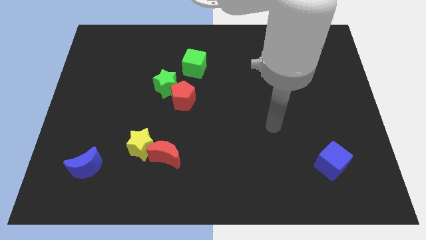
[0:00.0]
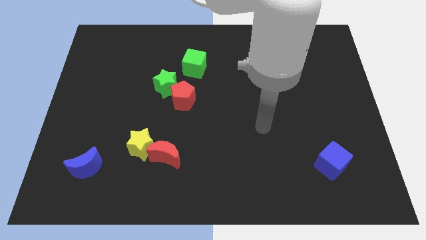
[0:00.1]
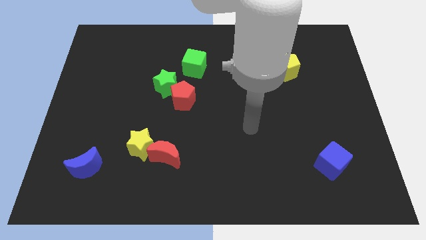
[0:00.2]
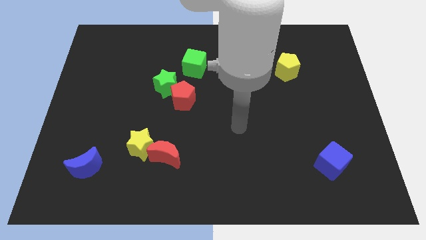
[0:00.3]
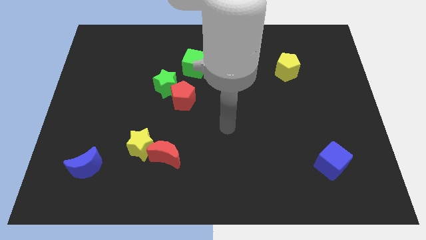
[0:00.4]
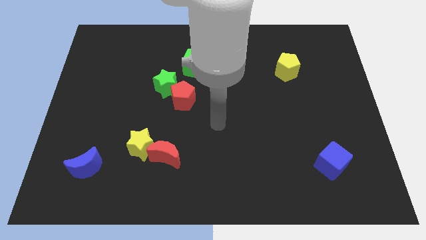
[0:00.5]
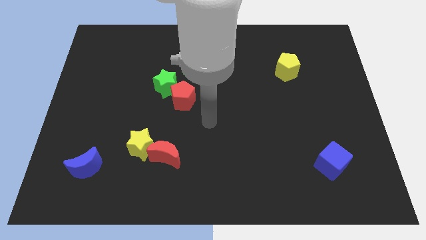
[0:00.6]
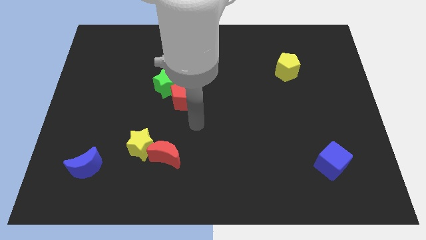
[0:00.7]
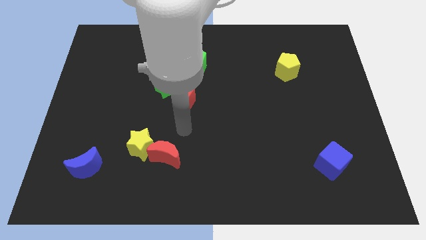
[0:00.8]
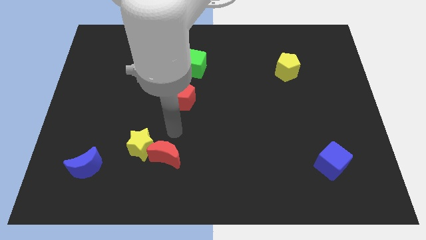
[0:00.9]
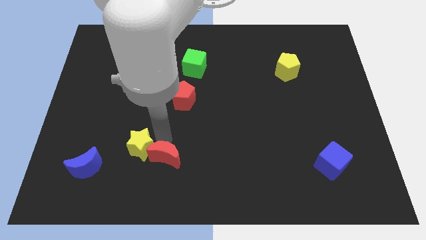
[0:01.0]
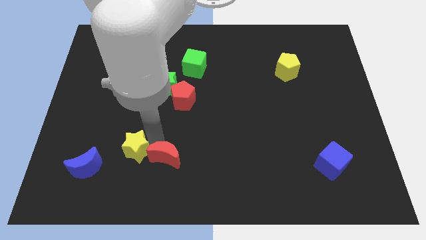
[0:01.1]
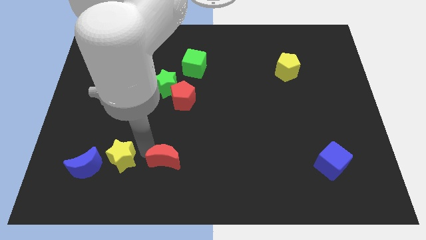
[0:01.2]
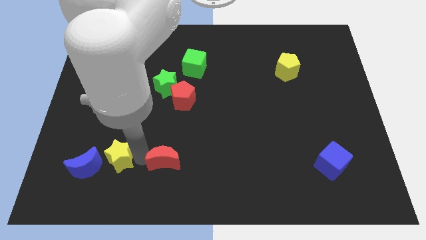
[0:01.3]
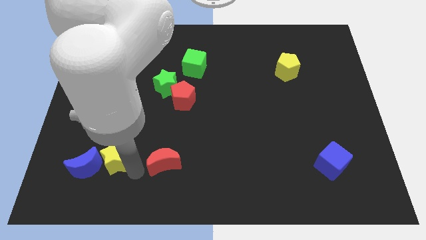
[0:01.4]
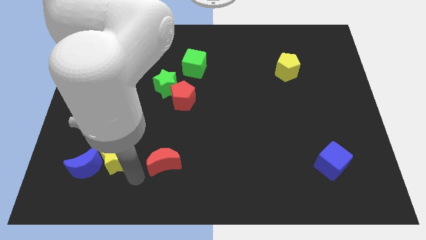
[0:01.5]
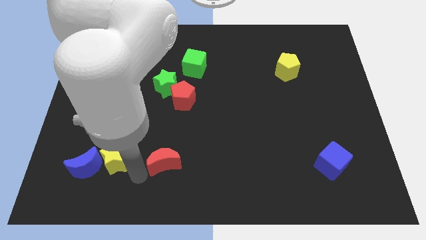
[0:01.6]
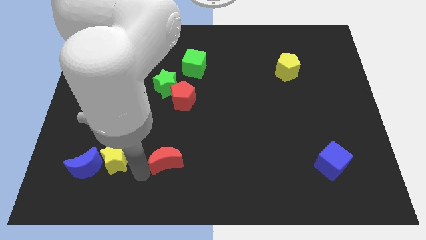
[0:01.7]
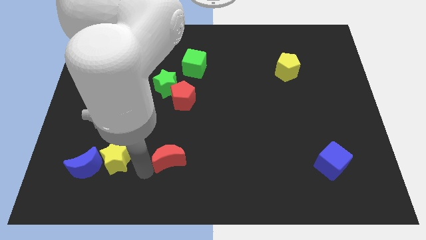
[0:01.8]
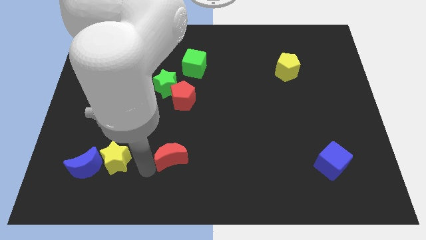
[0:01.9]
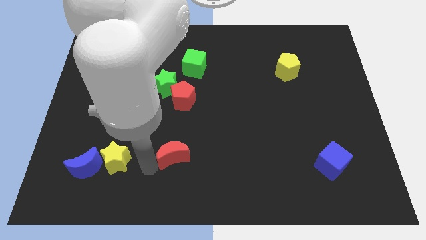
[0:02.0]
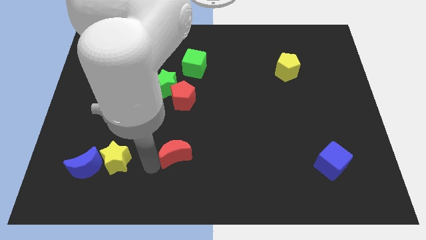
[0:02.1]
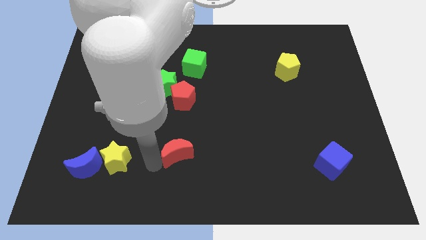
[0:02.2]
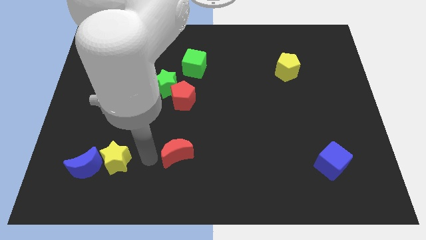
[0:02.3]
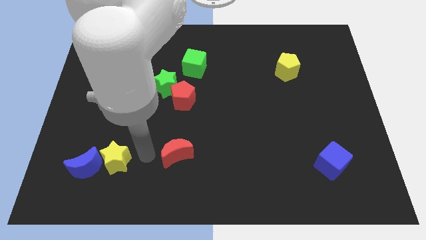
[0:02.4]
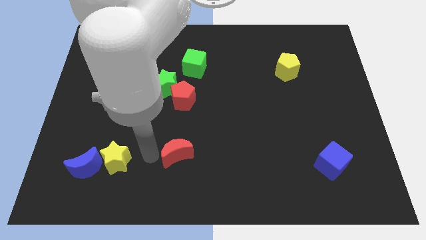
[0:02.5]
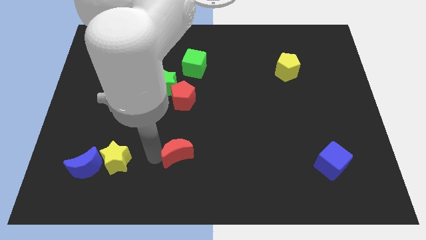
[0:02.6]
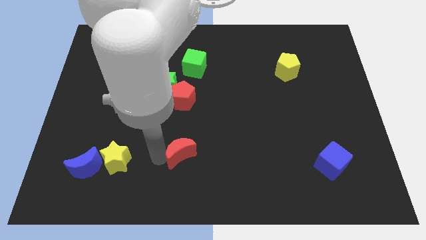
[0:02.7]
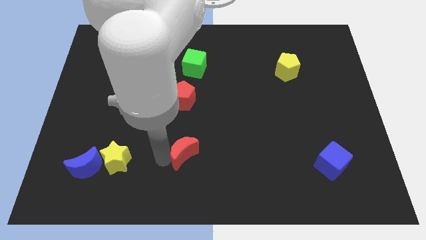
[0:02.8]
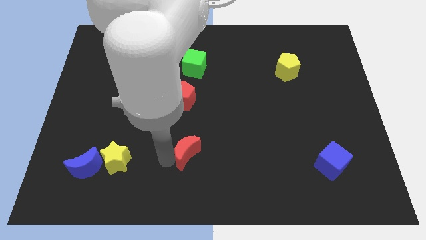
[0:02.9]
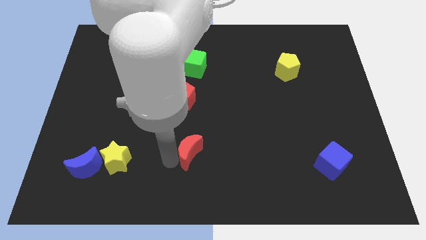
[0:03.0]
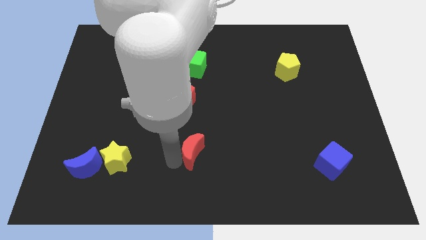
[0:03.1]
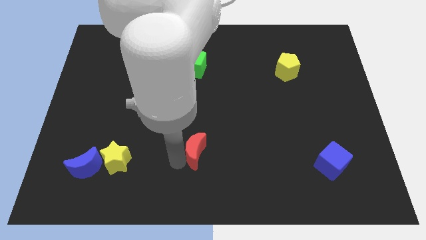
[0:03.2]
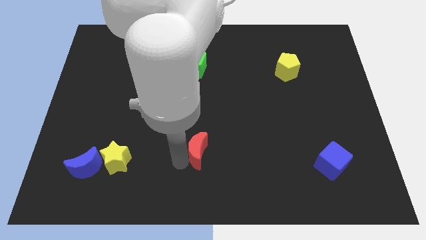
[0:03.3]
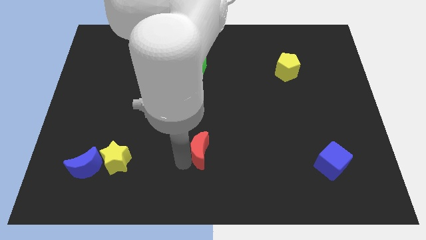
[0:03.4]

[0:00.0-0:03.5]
slide the red moon a bit to the right

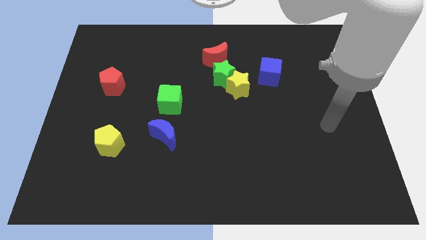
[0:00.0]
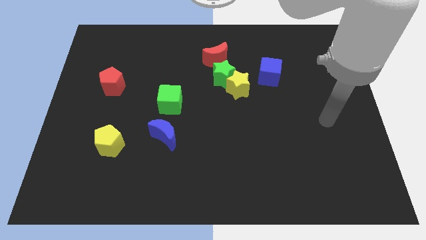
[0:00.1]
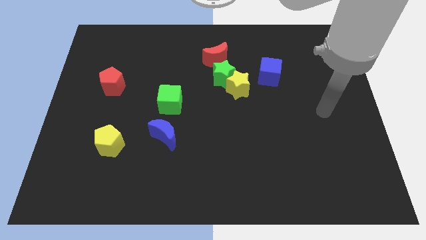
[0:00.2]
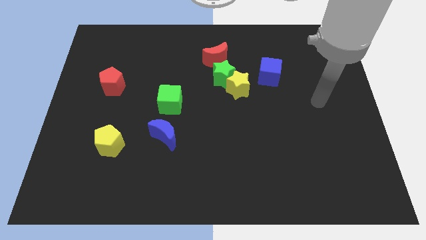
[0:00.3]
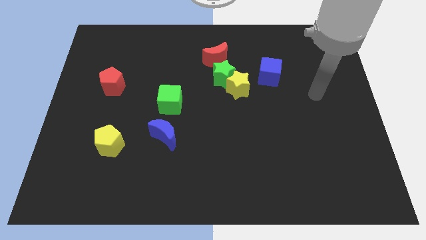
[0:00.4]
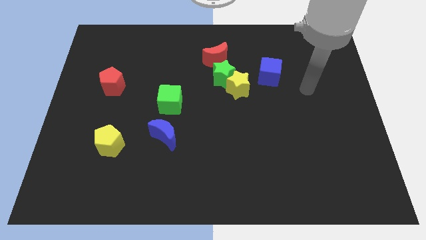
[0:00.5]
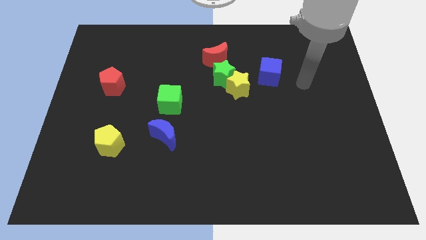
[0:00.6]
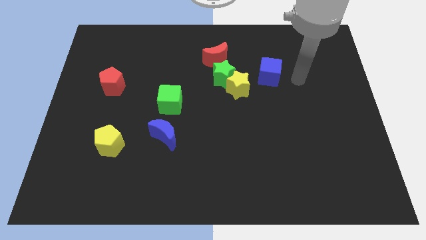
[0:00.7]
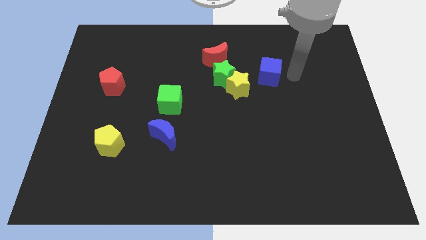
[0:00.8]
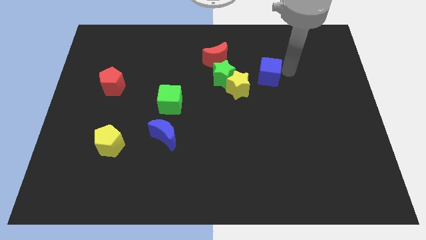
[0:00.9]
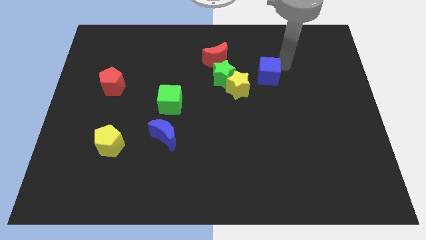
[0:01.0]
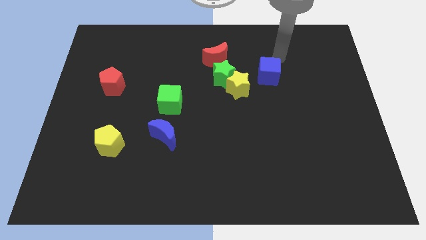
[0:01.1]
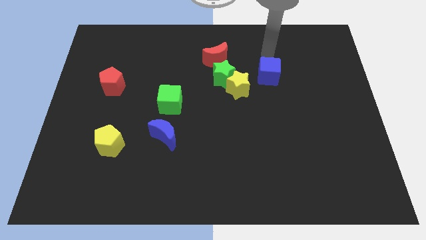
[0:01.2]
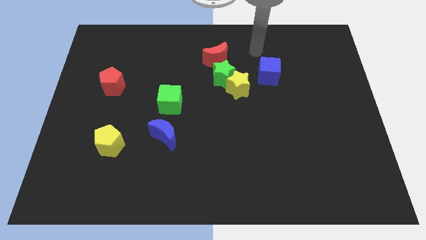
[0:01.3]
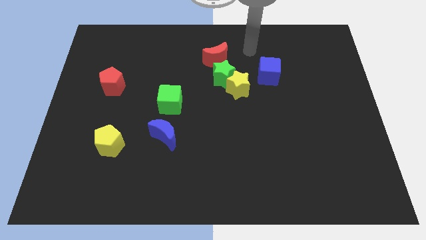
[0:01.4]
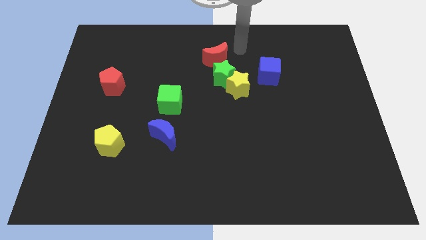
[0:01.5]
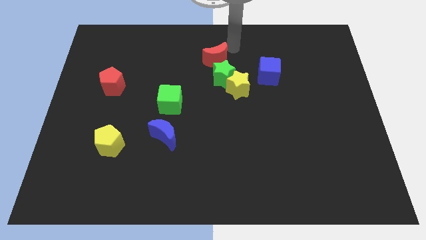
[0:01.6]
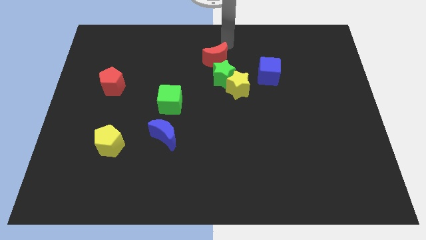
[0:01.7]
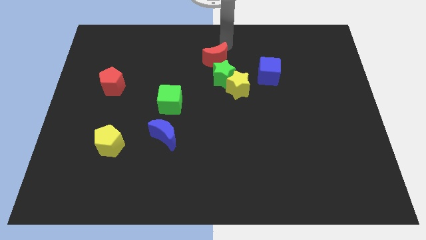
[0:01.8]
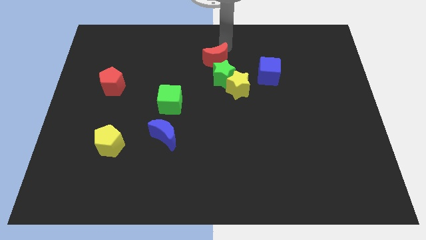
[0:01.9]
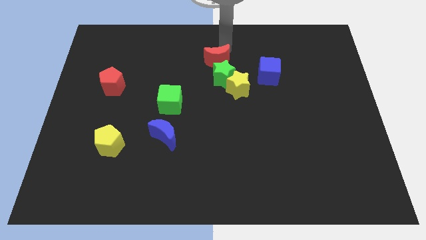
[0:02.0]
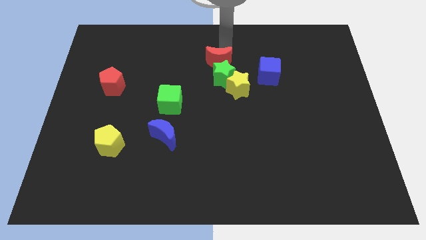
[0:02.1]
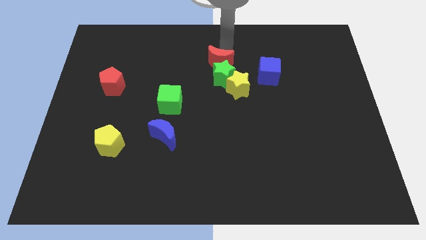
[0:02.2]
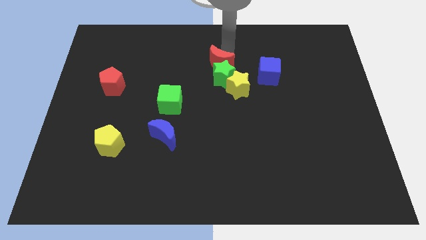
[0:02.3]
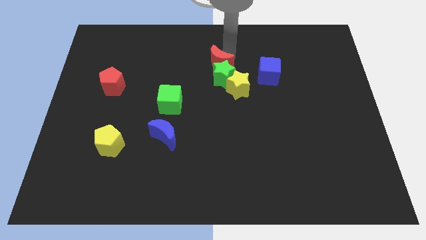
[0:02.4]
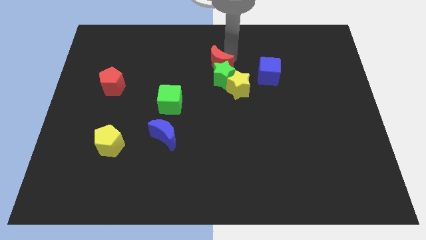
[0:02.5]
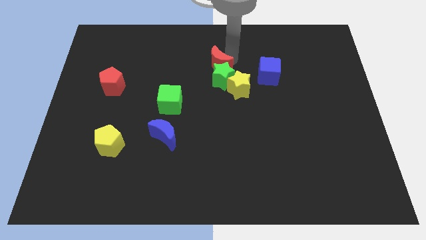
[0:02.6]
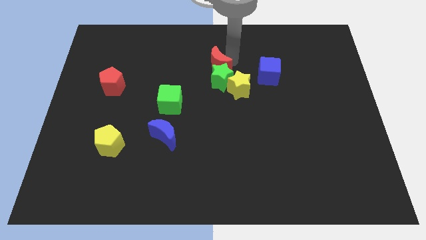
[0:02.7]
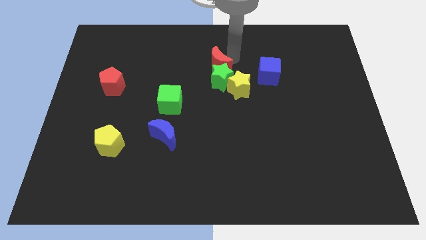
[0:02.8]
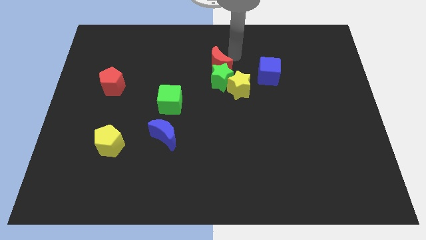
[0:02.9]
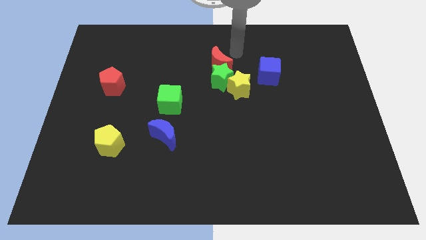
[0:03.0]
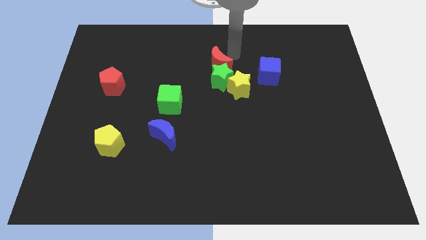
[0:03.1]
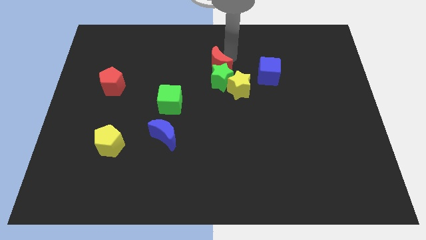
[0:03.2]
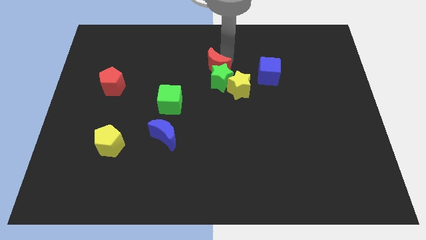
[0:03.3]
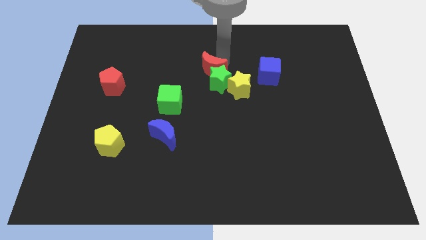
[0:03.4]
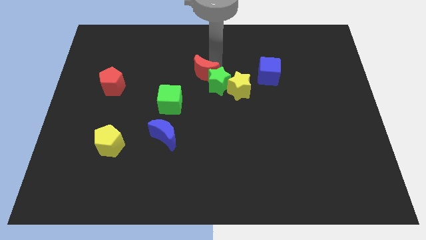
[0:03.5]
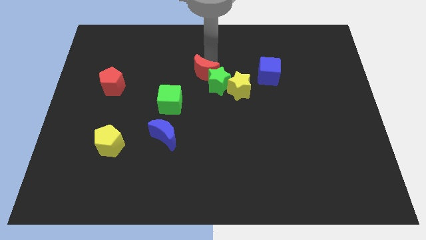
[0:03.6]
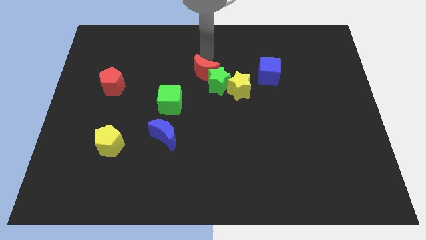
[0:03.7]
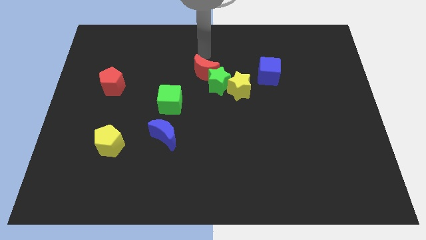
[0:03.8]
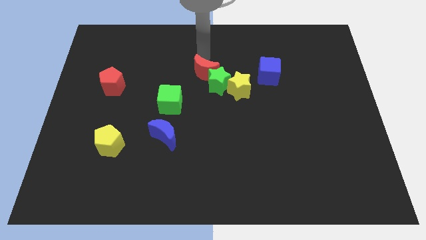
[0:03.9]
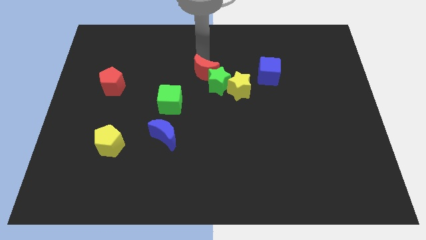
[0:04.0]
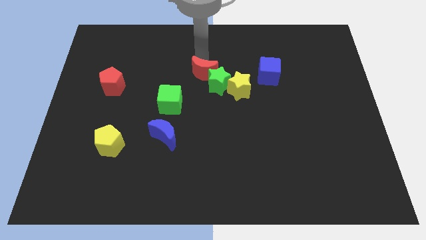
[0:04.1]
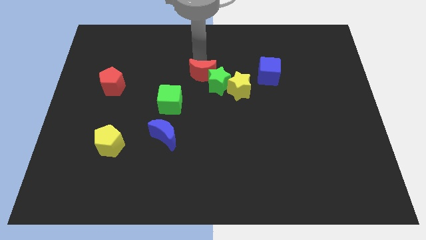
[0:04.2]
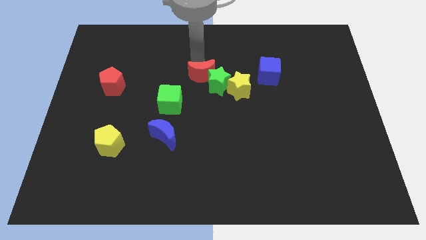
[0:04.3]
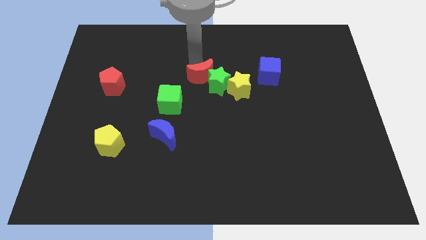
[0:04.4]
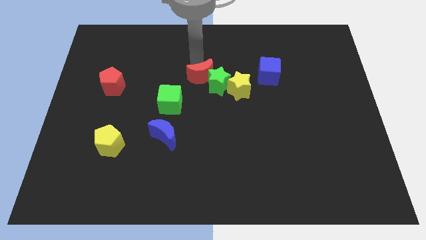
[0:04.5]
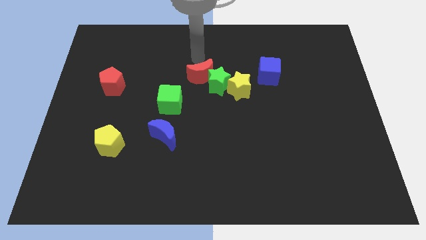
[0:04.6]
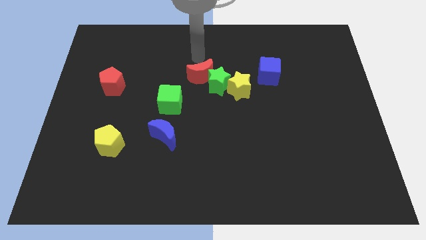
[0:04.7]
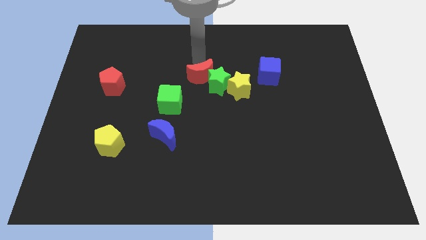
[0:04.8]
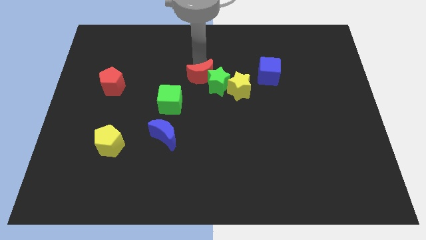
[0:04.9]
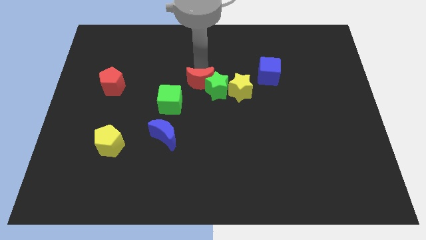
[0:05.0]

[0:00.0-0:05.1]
slightly move the red moon down
